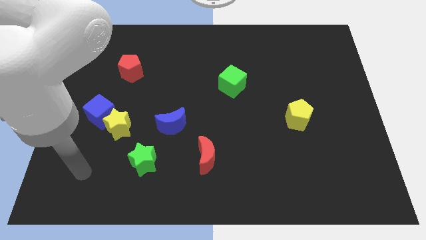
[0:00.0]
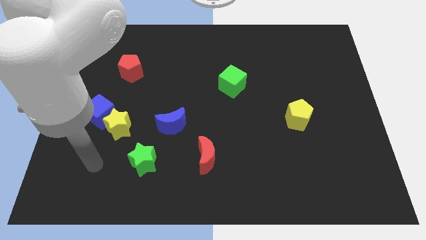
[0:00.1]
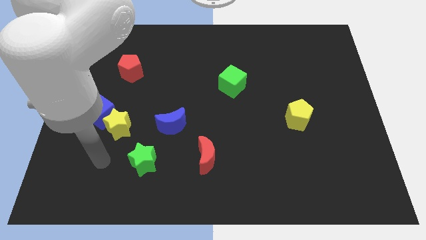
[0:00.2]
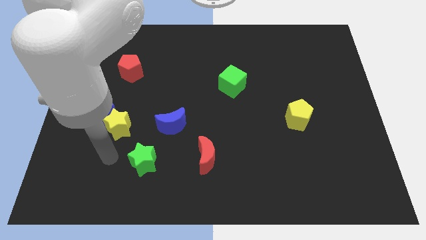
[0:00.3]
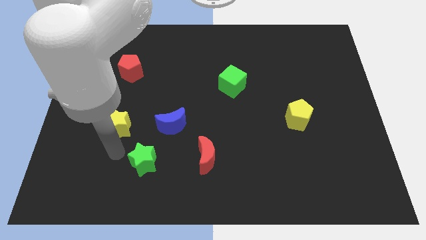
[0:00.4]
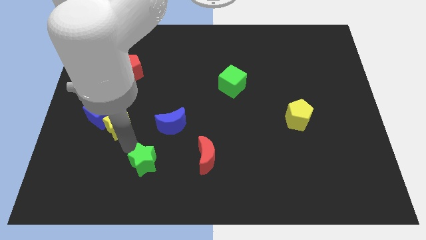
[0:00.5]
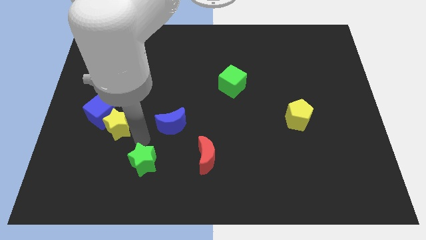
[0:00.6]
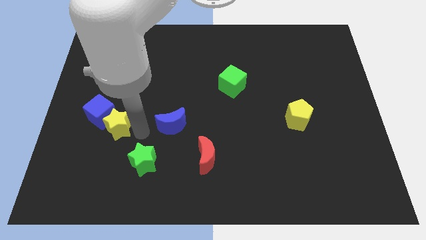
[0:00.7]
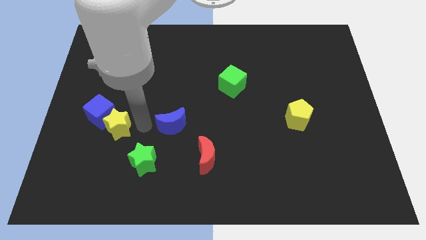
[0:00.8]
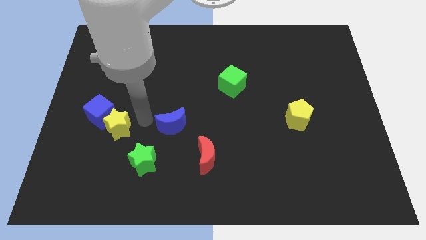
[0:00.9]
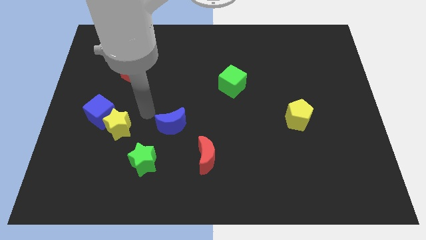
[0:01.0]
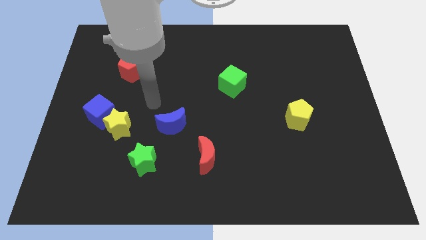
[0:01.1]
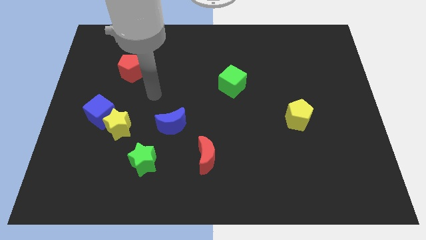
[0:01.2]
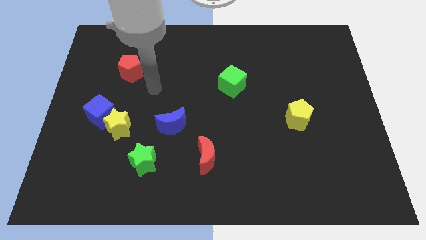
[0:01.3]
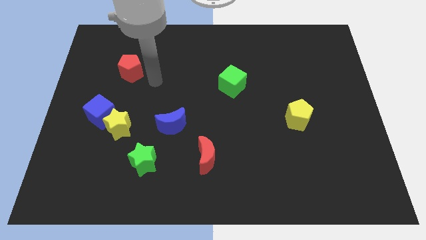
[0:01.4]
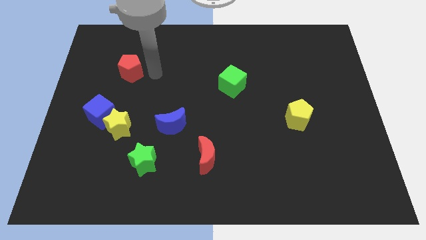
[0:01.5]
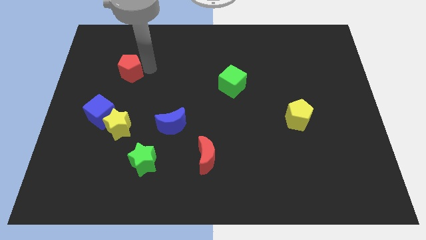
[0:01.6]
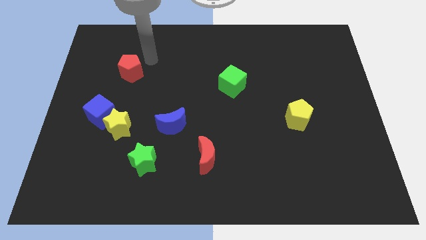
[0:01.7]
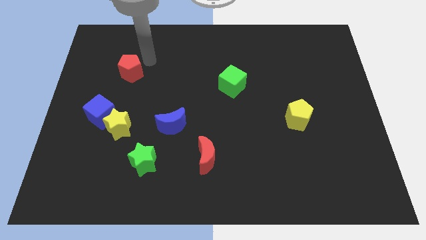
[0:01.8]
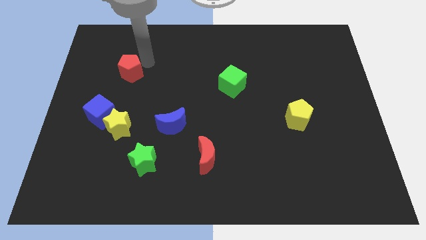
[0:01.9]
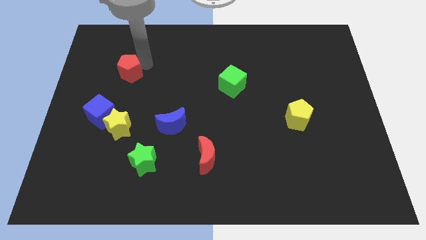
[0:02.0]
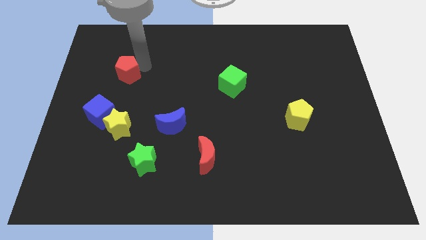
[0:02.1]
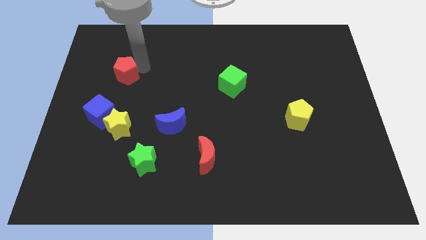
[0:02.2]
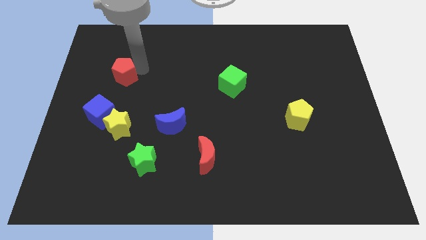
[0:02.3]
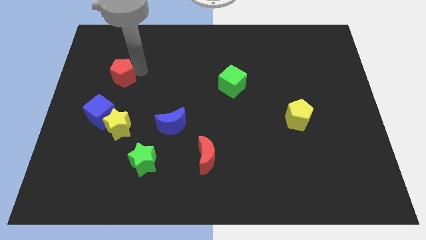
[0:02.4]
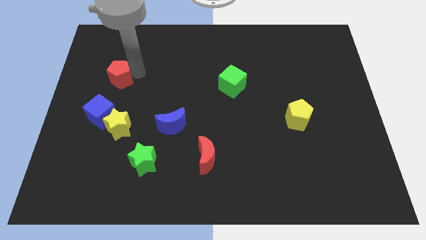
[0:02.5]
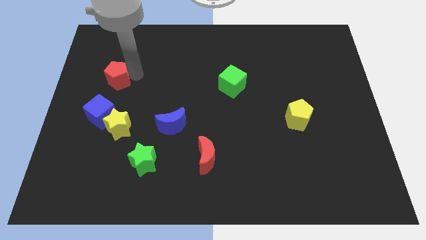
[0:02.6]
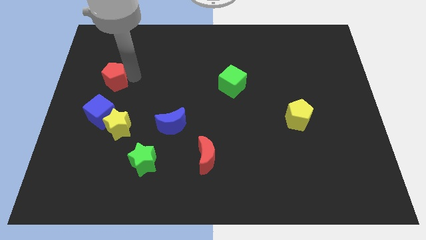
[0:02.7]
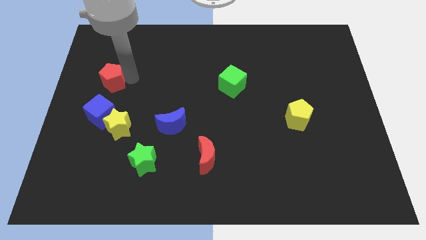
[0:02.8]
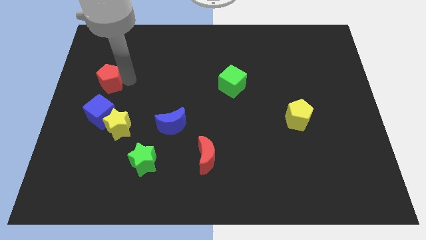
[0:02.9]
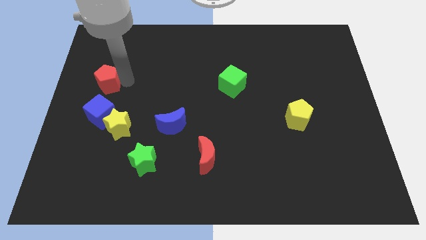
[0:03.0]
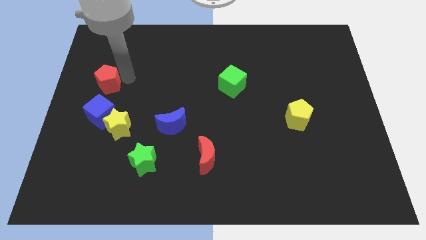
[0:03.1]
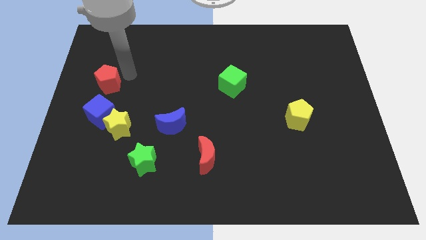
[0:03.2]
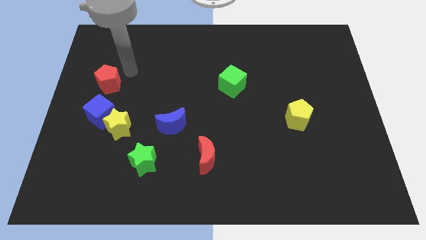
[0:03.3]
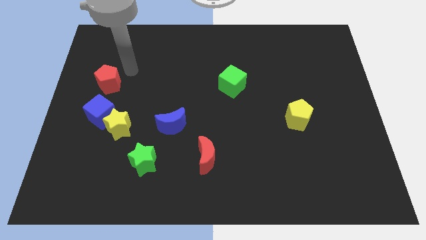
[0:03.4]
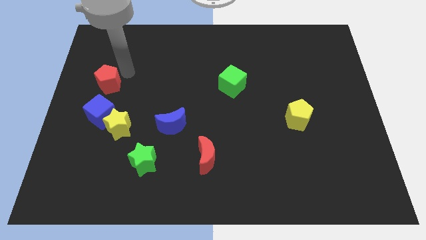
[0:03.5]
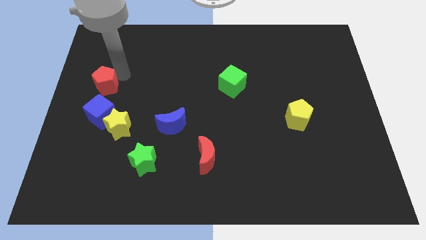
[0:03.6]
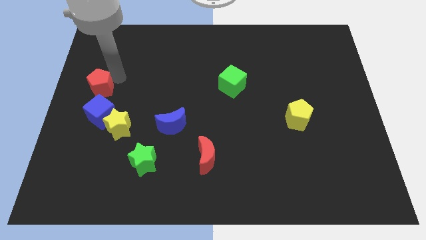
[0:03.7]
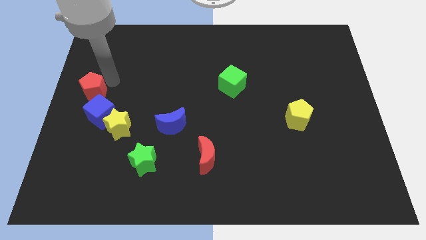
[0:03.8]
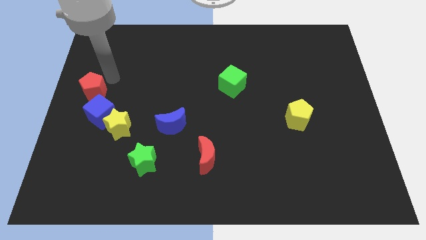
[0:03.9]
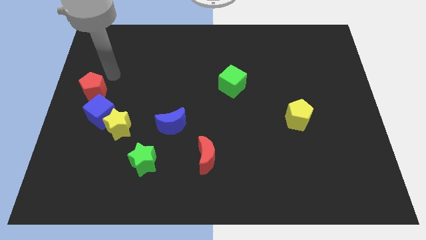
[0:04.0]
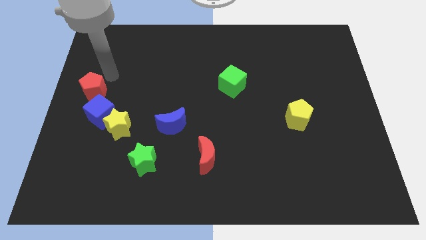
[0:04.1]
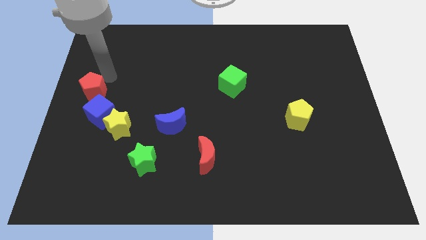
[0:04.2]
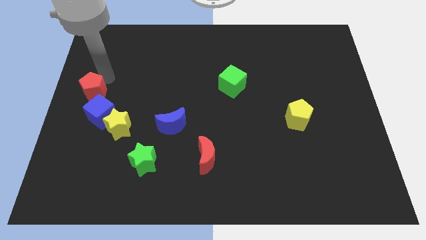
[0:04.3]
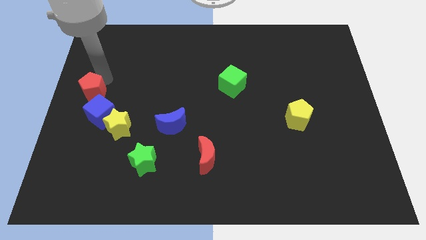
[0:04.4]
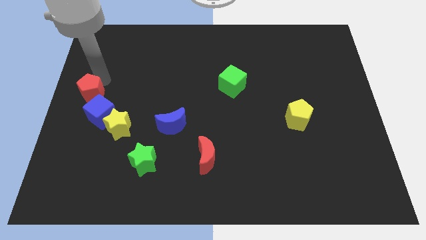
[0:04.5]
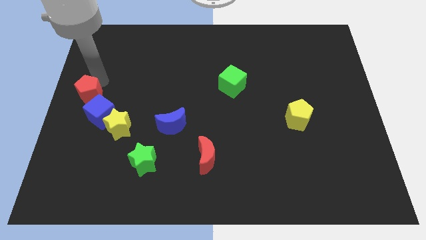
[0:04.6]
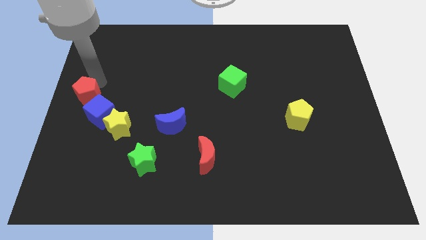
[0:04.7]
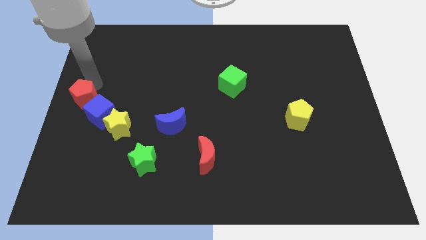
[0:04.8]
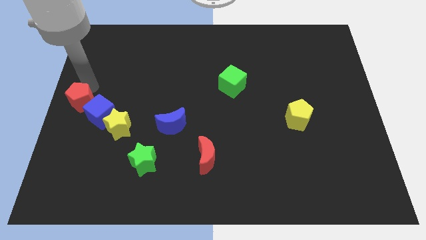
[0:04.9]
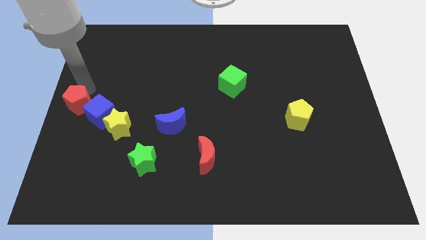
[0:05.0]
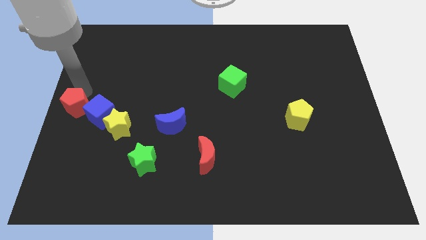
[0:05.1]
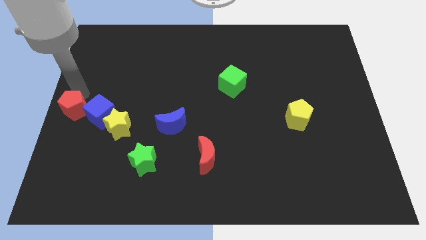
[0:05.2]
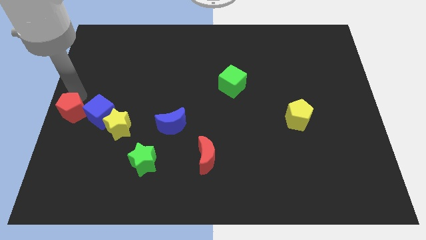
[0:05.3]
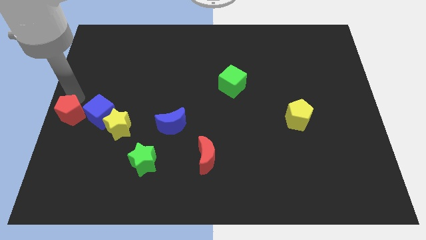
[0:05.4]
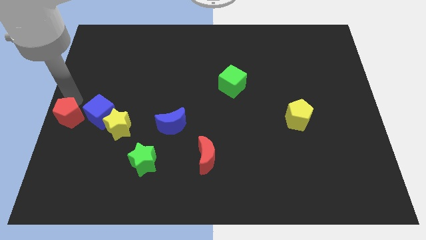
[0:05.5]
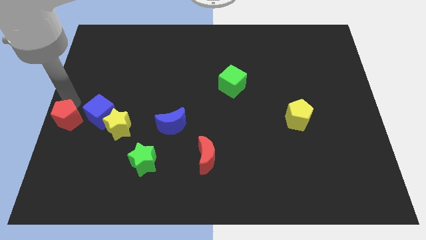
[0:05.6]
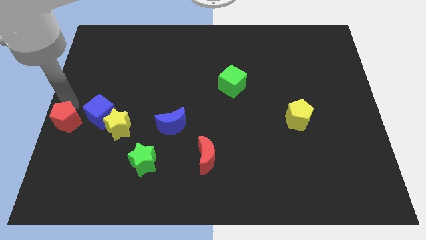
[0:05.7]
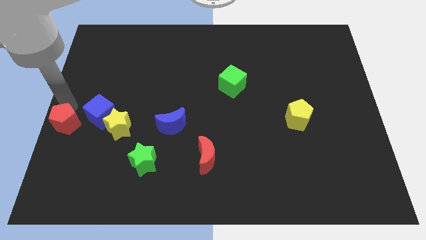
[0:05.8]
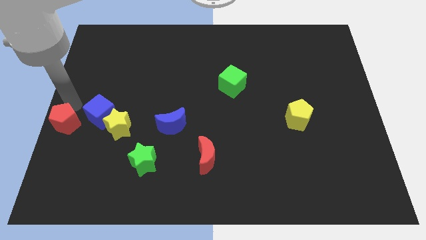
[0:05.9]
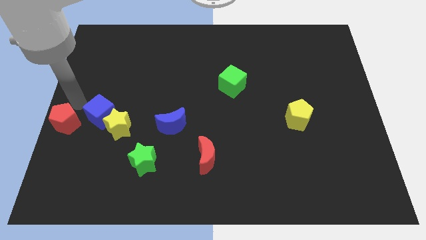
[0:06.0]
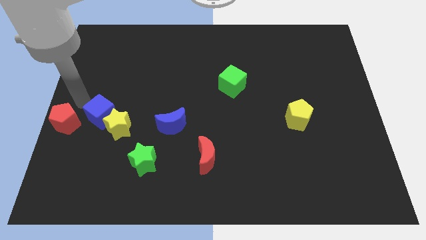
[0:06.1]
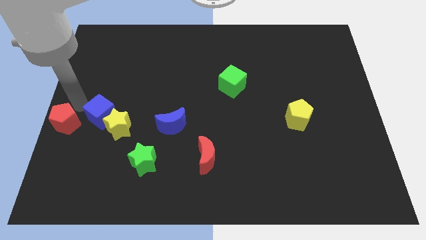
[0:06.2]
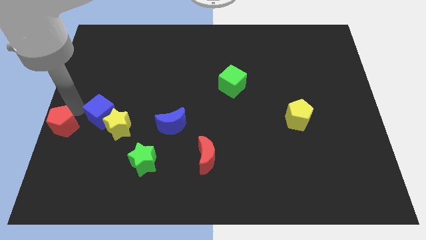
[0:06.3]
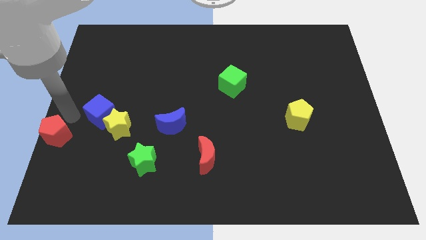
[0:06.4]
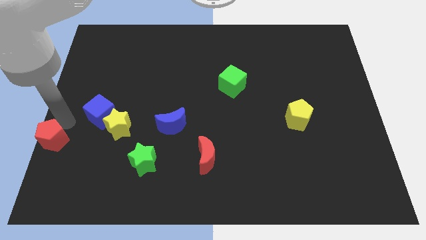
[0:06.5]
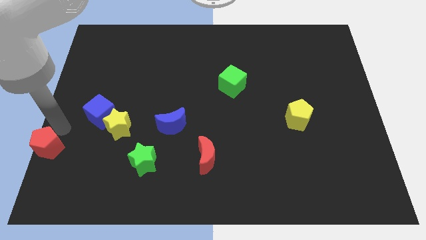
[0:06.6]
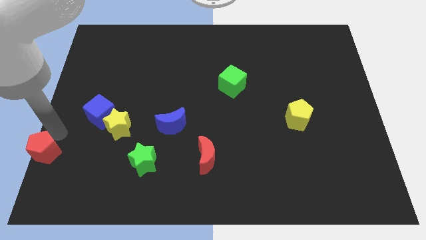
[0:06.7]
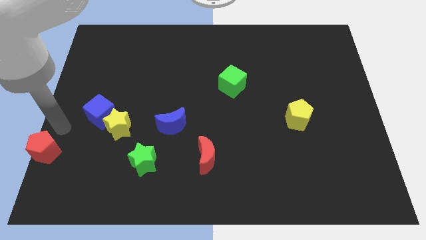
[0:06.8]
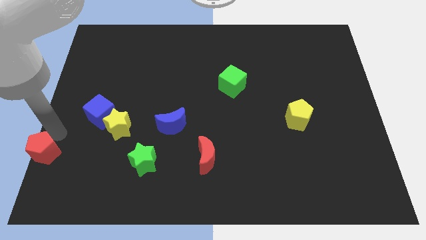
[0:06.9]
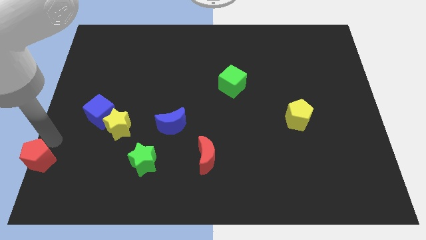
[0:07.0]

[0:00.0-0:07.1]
move the red pentagon to the bottom left of the board
